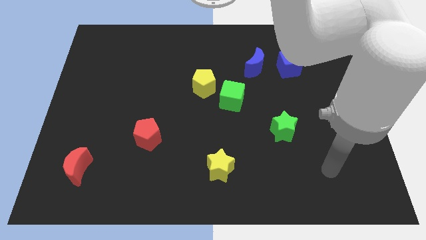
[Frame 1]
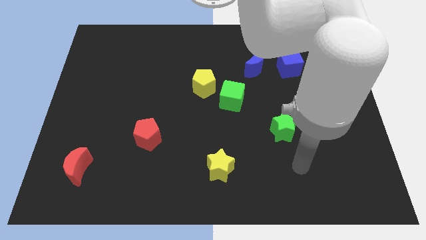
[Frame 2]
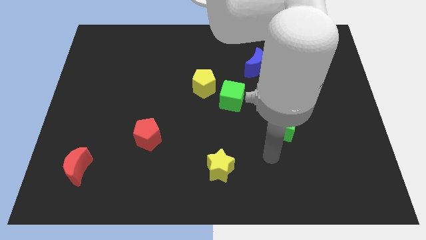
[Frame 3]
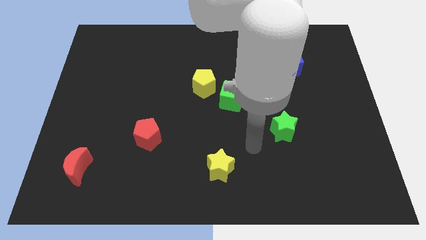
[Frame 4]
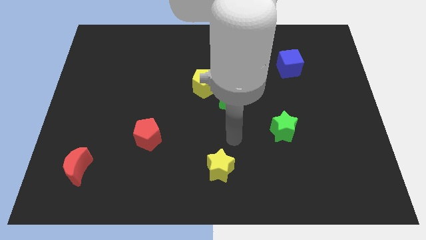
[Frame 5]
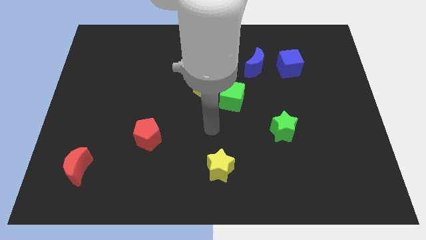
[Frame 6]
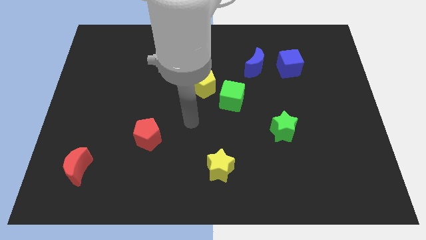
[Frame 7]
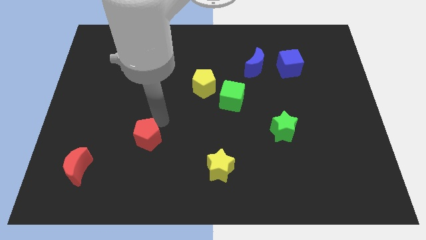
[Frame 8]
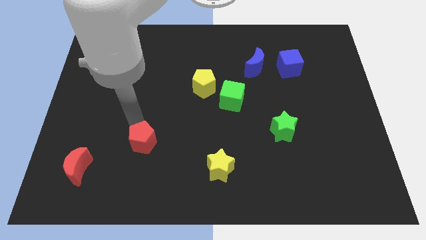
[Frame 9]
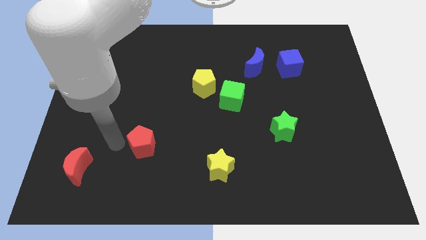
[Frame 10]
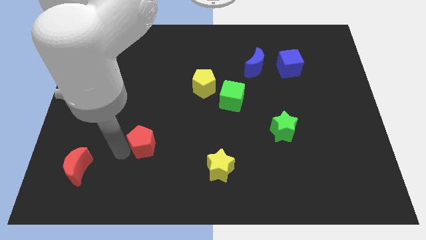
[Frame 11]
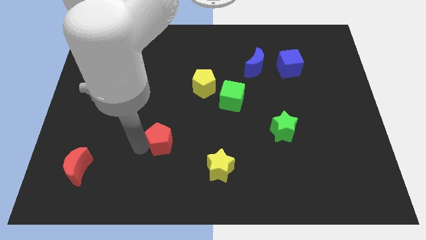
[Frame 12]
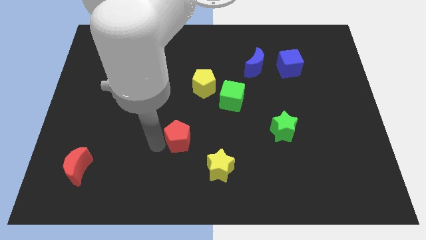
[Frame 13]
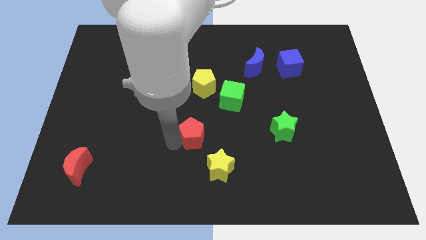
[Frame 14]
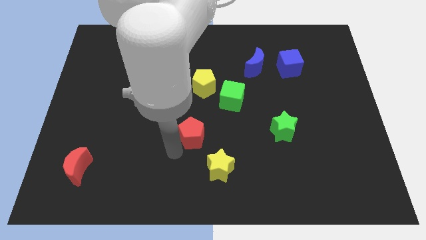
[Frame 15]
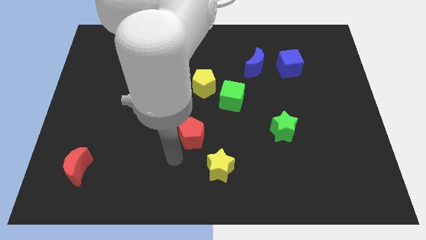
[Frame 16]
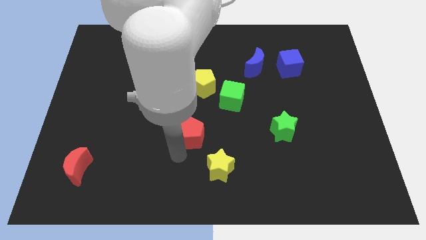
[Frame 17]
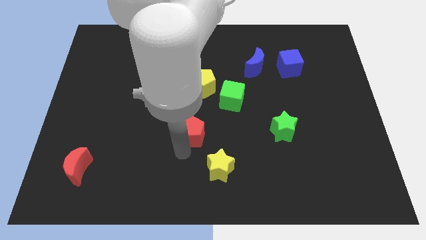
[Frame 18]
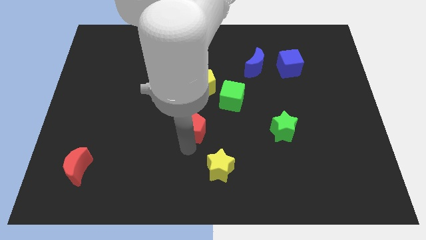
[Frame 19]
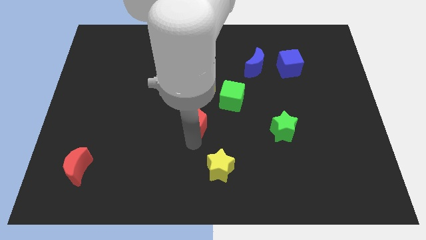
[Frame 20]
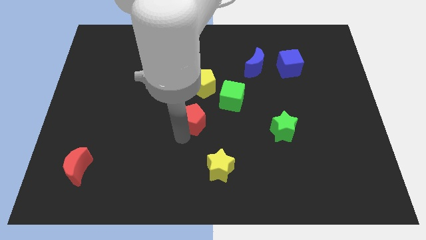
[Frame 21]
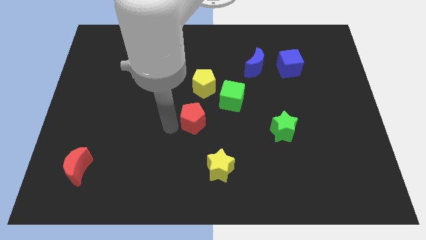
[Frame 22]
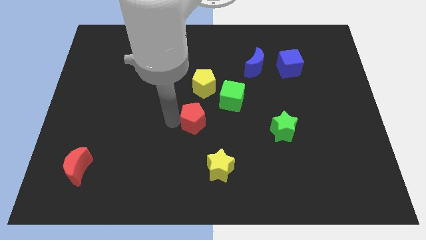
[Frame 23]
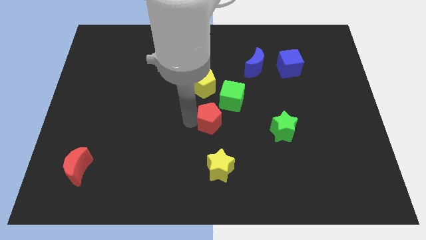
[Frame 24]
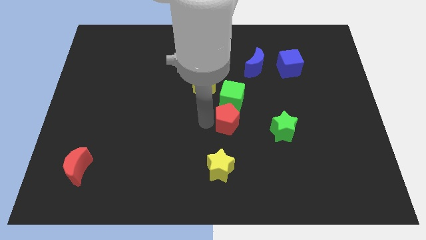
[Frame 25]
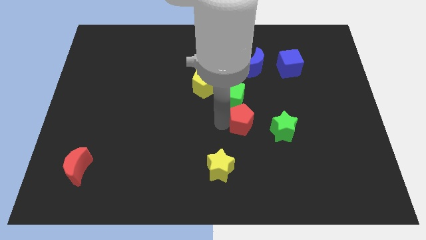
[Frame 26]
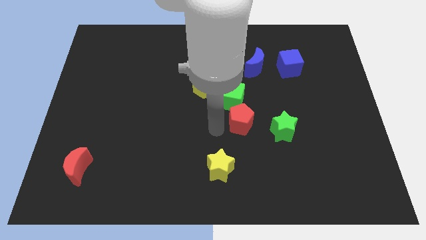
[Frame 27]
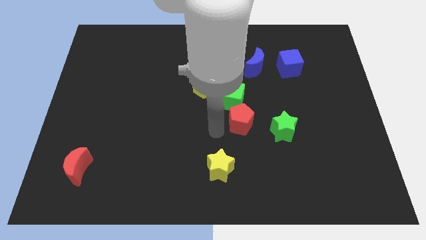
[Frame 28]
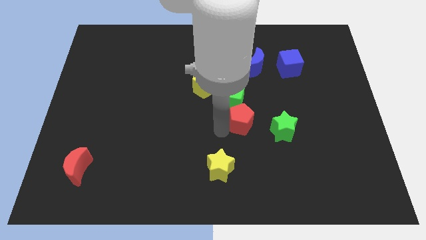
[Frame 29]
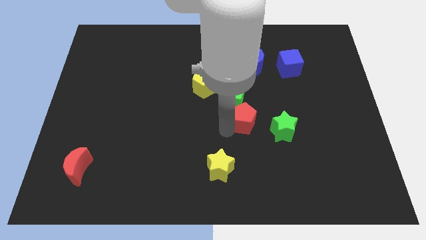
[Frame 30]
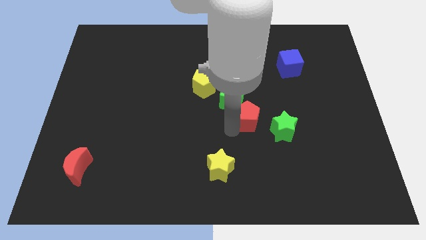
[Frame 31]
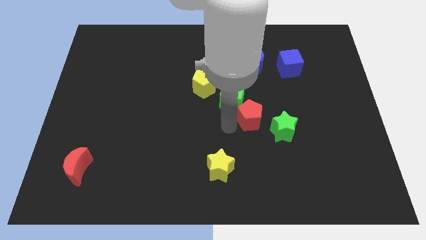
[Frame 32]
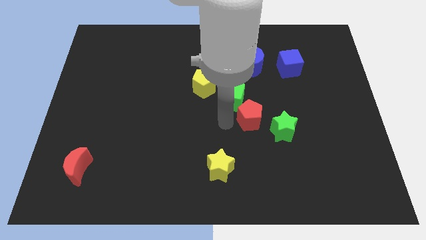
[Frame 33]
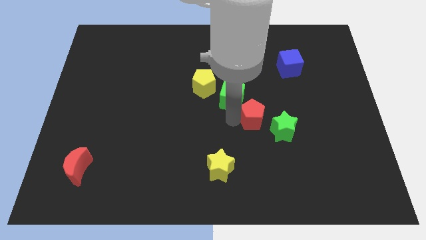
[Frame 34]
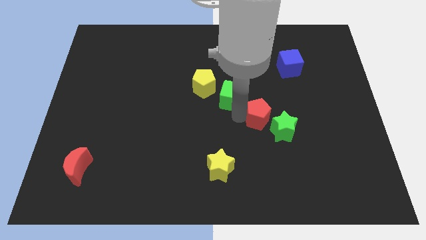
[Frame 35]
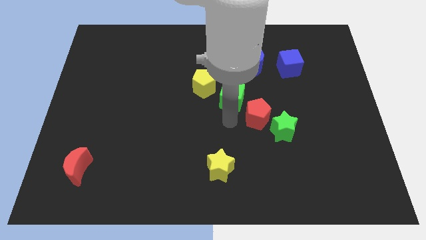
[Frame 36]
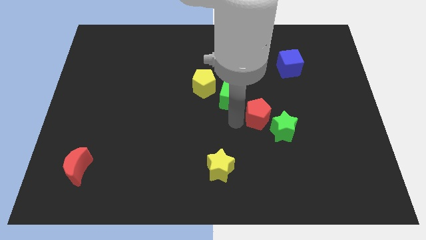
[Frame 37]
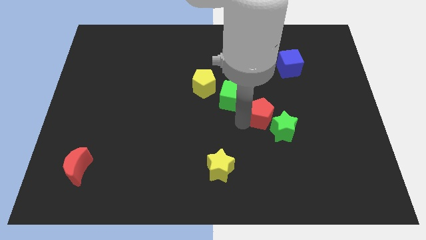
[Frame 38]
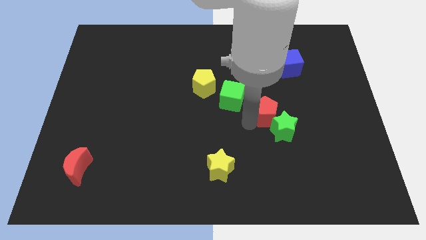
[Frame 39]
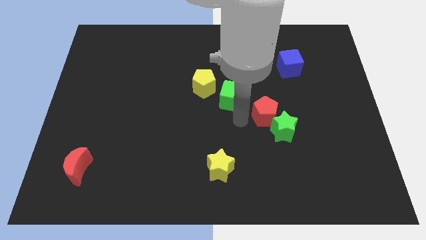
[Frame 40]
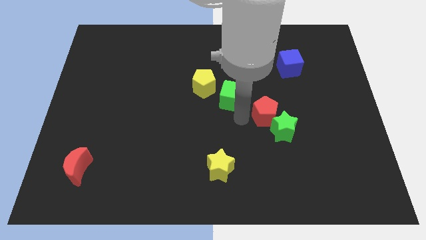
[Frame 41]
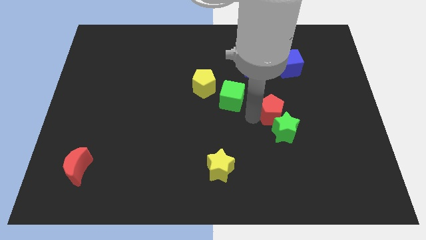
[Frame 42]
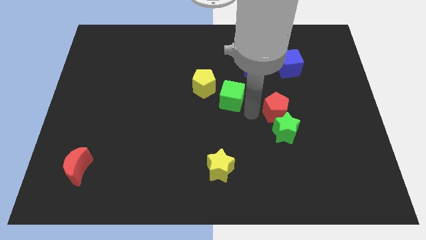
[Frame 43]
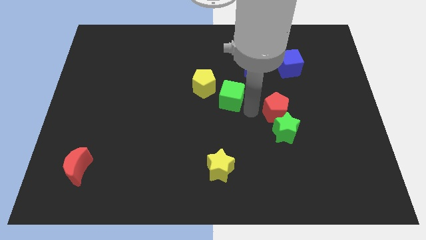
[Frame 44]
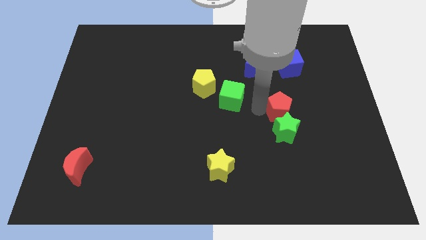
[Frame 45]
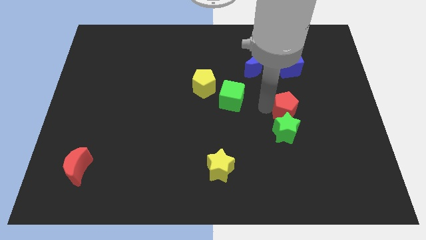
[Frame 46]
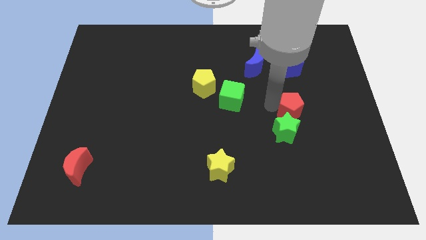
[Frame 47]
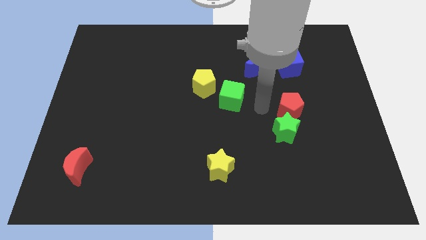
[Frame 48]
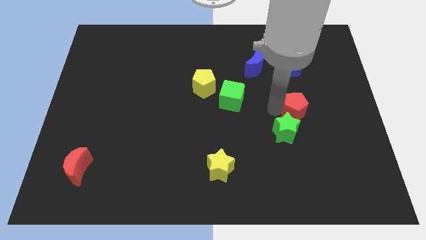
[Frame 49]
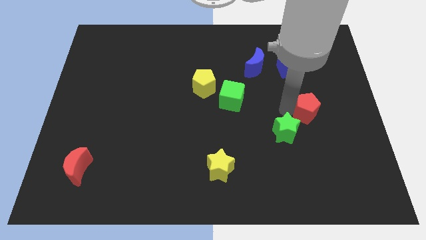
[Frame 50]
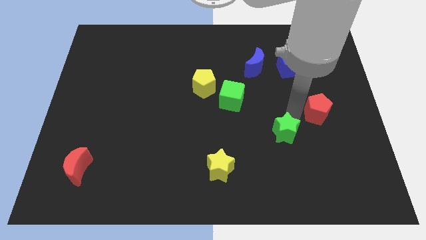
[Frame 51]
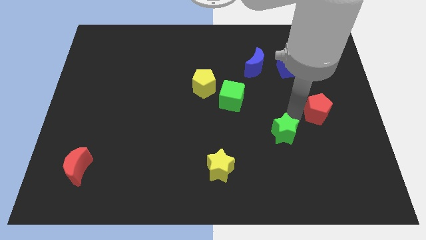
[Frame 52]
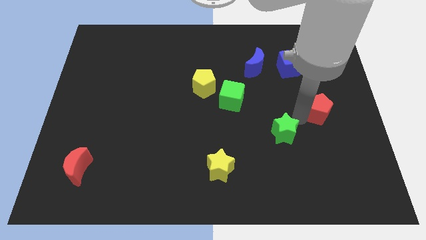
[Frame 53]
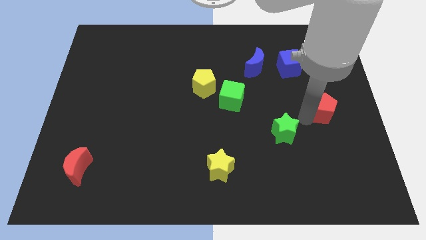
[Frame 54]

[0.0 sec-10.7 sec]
move the red pentagon to the center right
